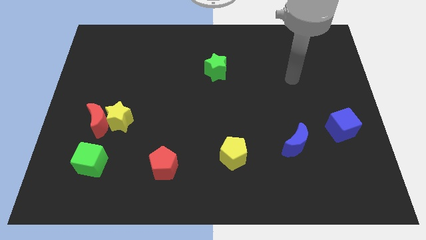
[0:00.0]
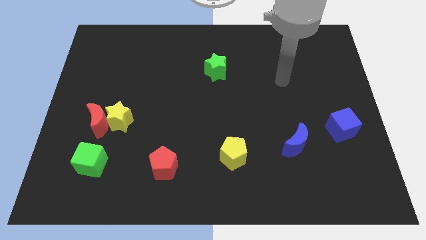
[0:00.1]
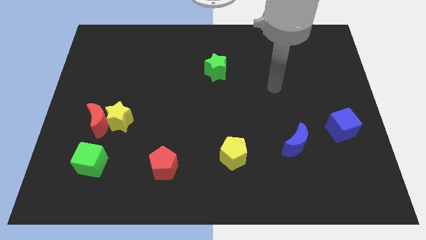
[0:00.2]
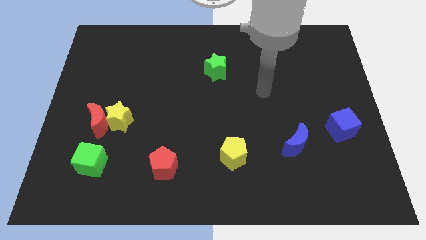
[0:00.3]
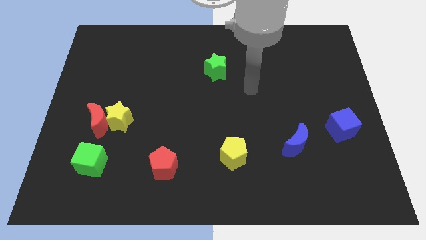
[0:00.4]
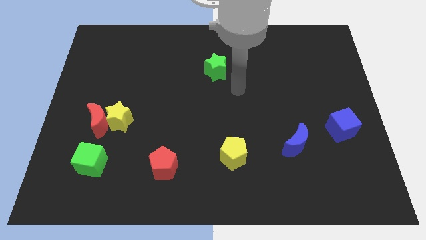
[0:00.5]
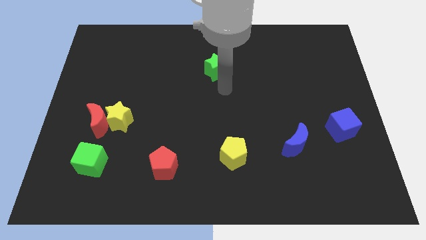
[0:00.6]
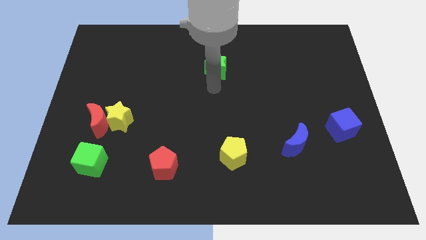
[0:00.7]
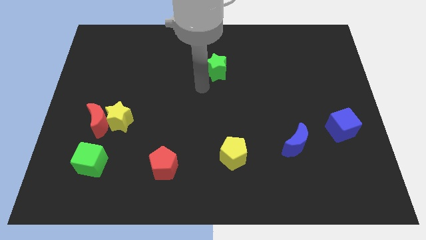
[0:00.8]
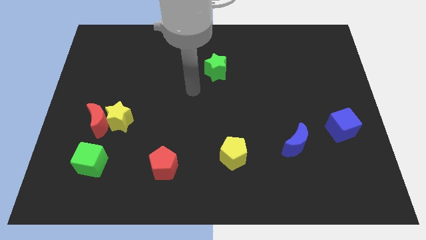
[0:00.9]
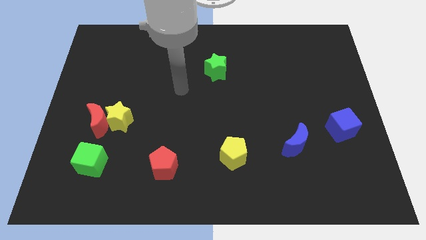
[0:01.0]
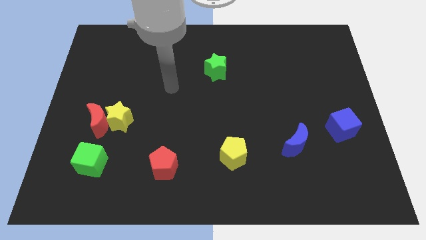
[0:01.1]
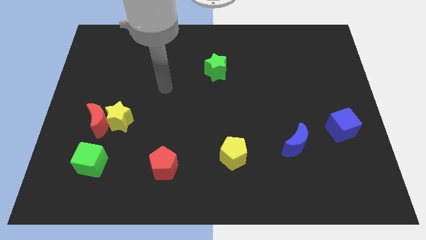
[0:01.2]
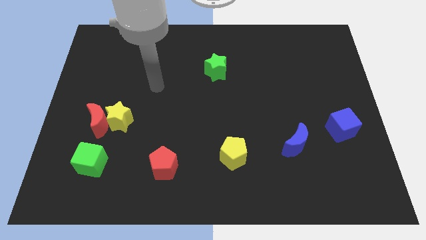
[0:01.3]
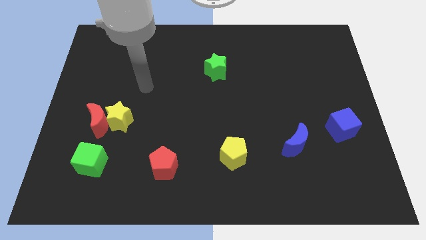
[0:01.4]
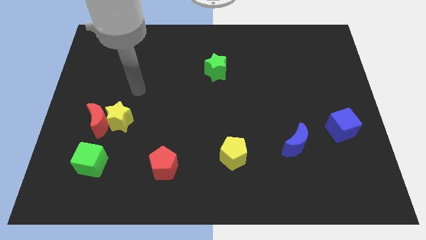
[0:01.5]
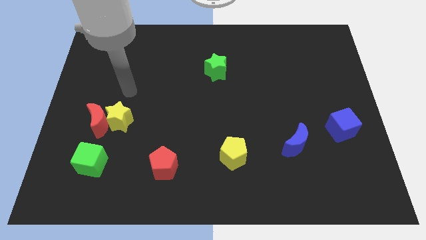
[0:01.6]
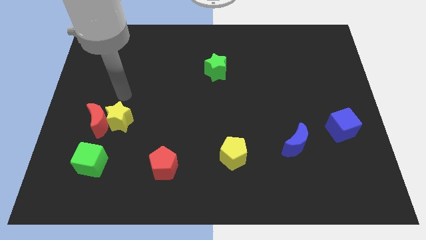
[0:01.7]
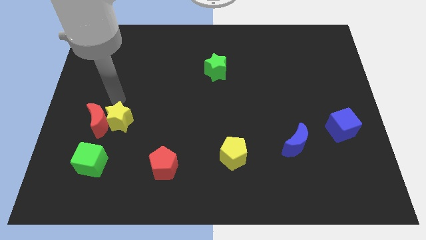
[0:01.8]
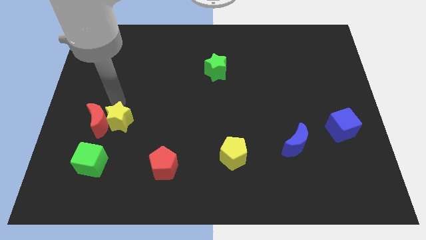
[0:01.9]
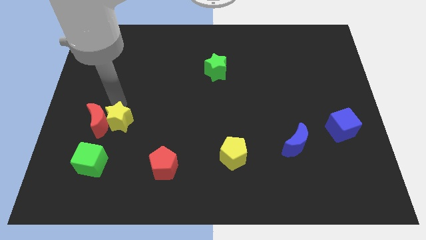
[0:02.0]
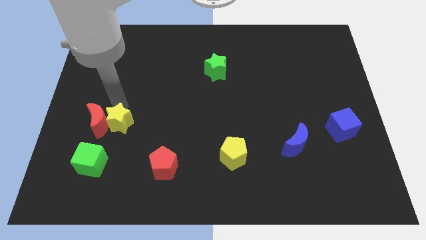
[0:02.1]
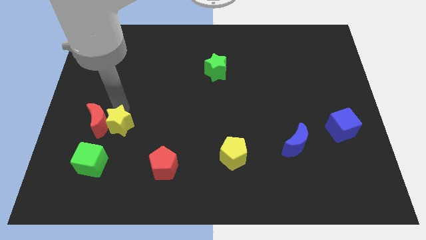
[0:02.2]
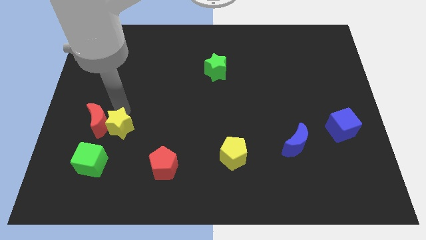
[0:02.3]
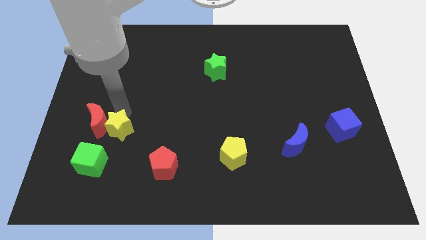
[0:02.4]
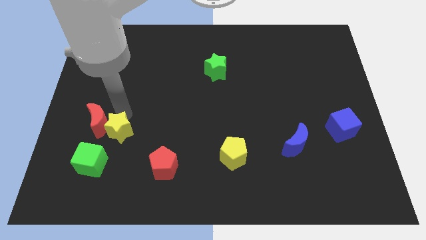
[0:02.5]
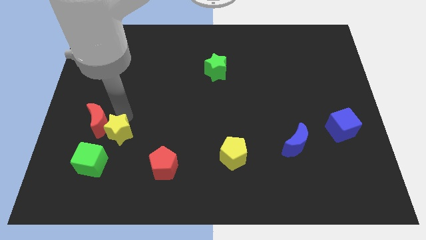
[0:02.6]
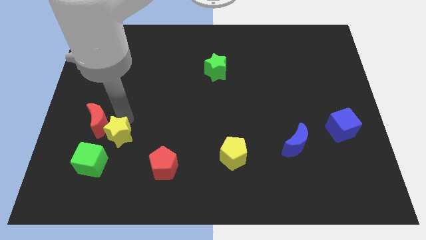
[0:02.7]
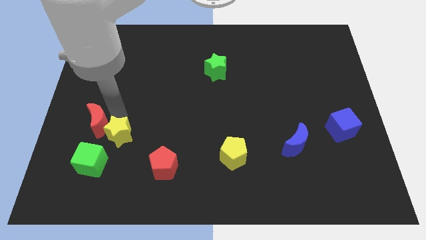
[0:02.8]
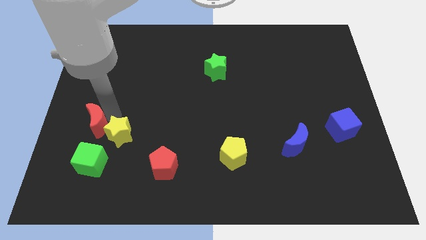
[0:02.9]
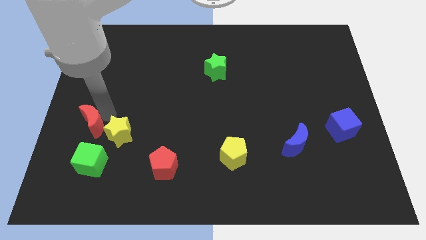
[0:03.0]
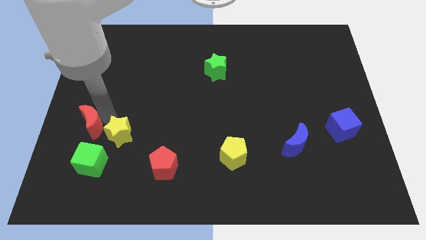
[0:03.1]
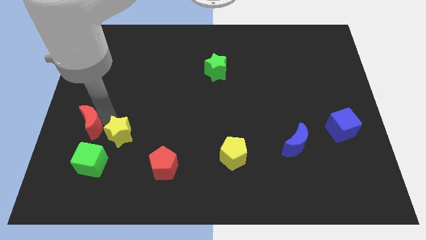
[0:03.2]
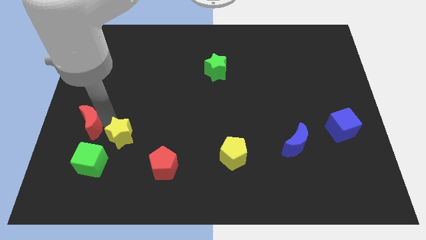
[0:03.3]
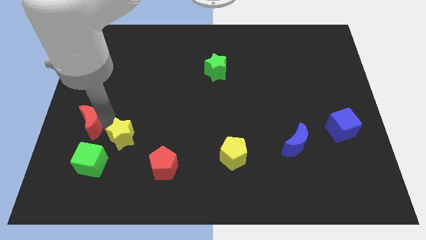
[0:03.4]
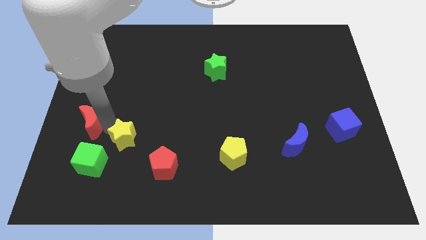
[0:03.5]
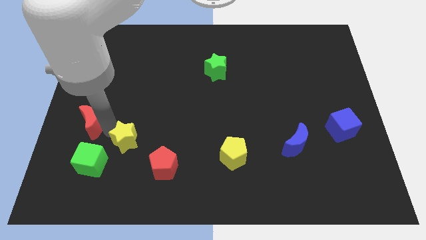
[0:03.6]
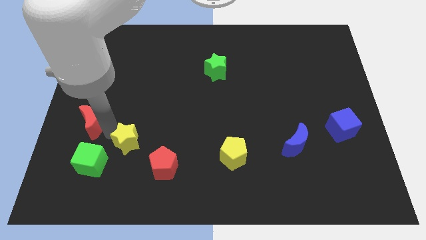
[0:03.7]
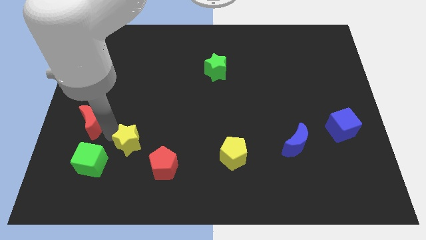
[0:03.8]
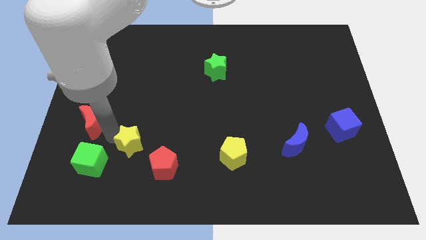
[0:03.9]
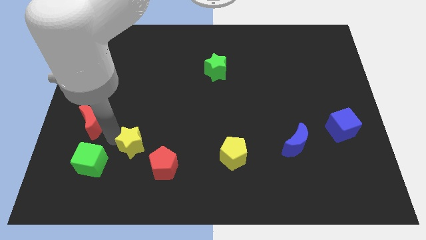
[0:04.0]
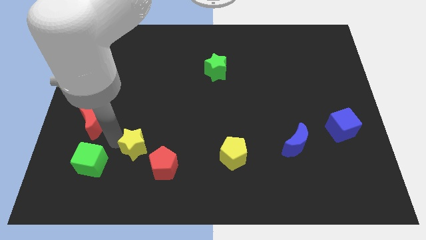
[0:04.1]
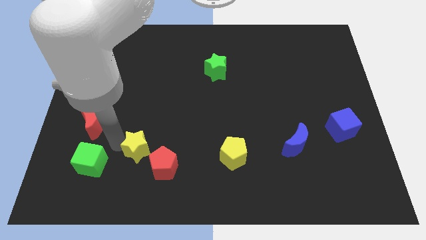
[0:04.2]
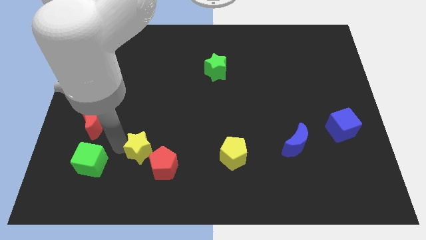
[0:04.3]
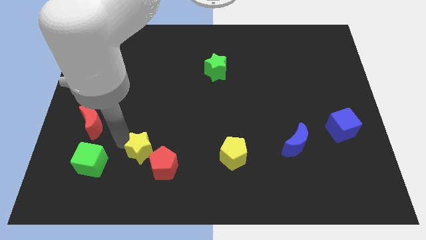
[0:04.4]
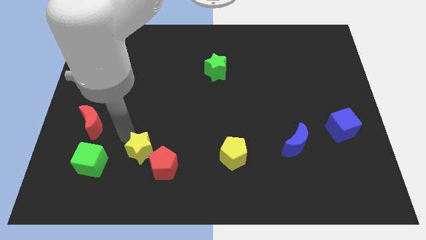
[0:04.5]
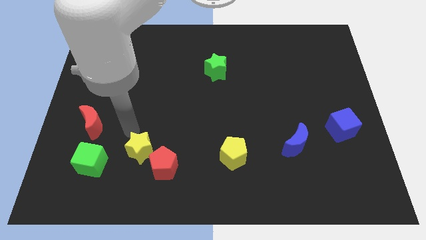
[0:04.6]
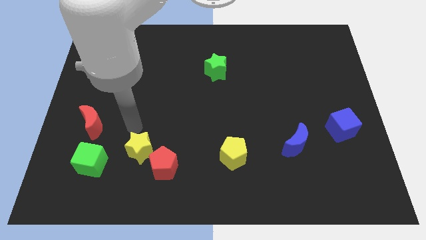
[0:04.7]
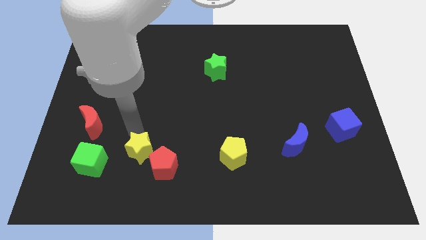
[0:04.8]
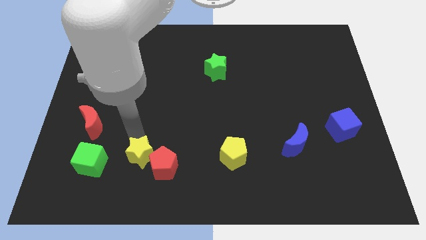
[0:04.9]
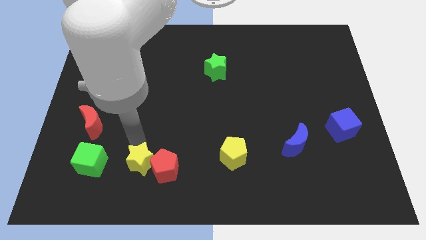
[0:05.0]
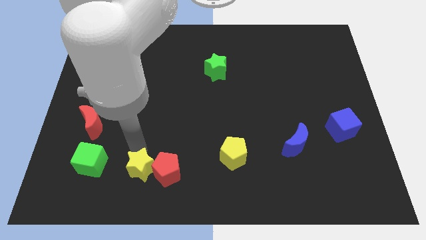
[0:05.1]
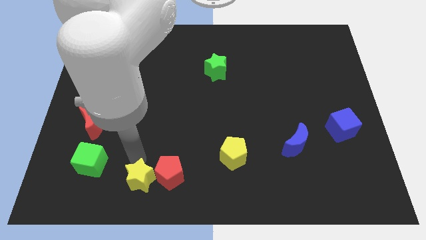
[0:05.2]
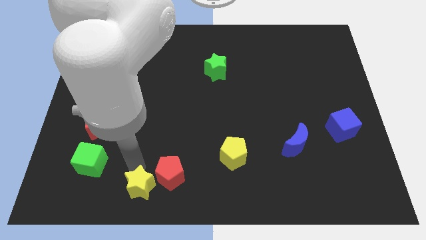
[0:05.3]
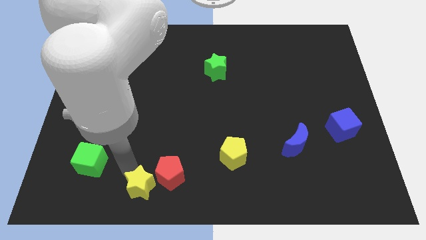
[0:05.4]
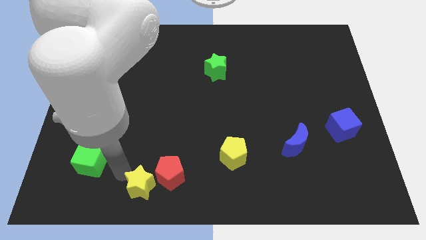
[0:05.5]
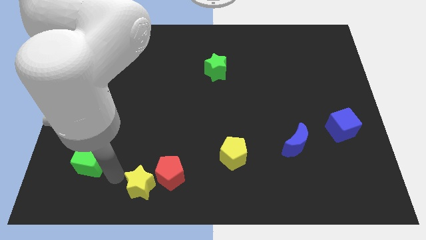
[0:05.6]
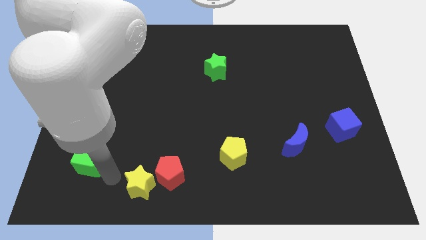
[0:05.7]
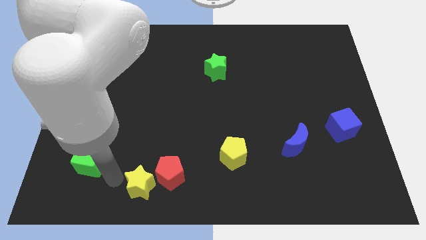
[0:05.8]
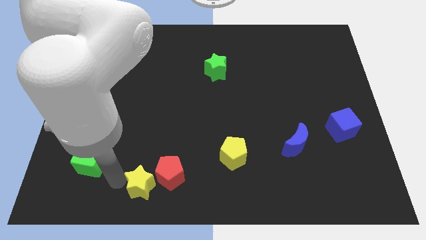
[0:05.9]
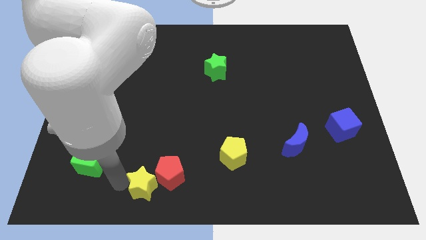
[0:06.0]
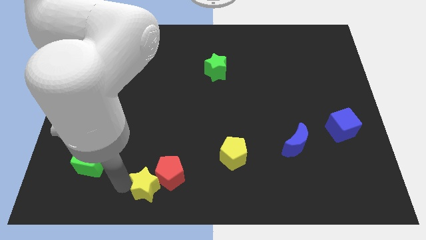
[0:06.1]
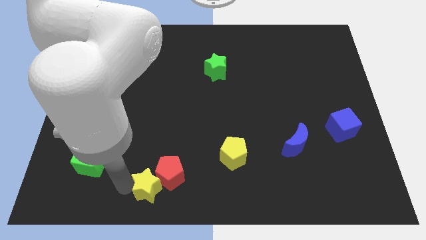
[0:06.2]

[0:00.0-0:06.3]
put the yellow star to the bottom
